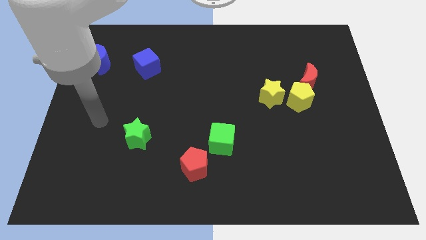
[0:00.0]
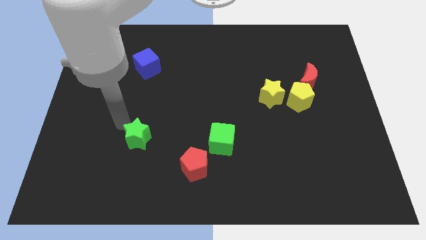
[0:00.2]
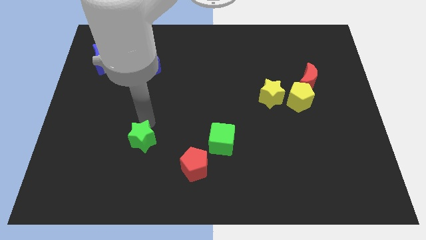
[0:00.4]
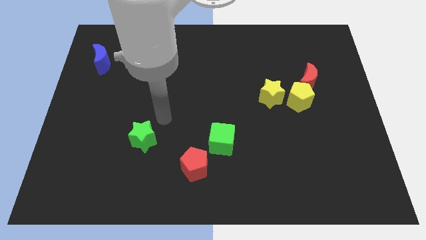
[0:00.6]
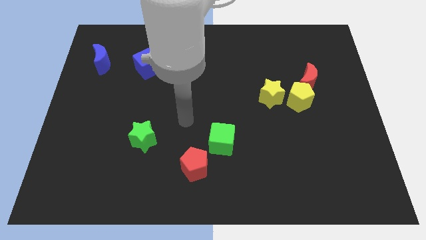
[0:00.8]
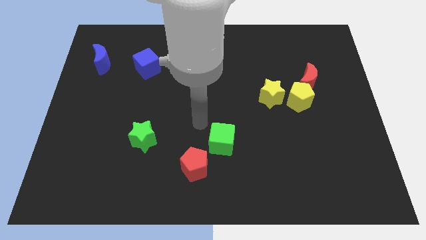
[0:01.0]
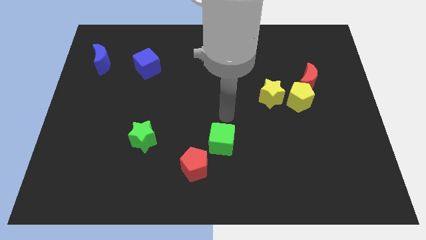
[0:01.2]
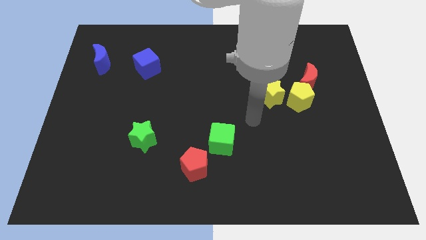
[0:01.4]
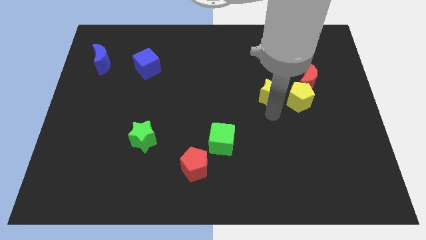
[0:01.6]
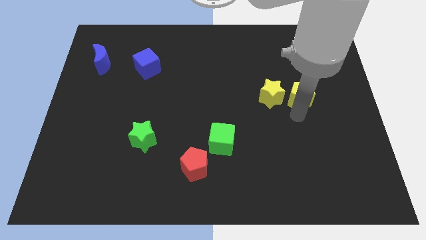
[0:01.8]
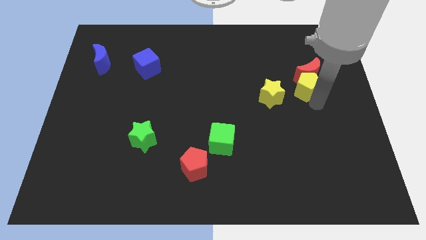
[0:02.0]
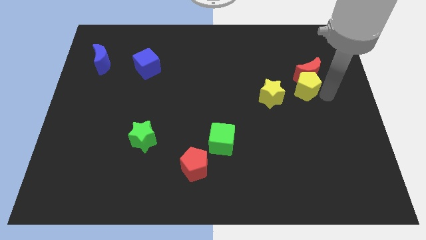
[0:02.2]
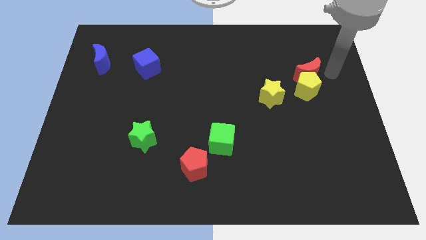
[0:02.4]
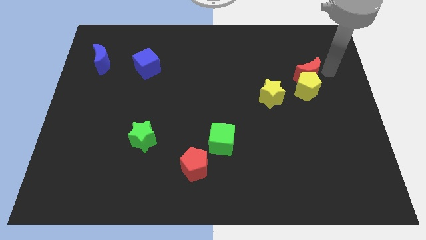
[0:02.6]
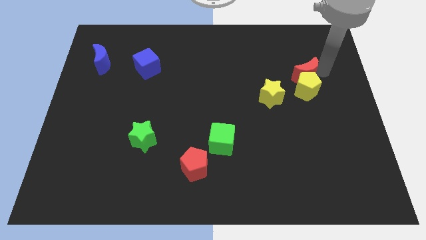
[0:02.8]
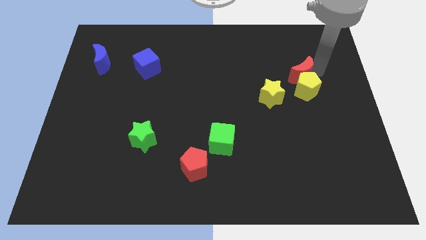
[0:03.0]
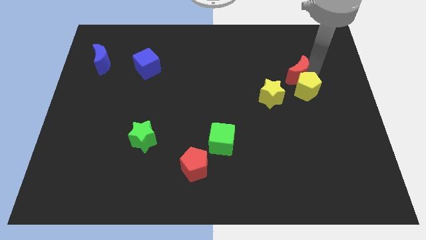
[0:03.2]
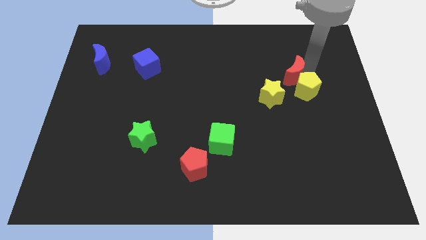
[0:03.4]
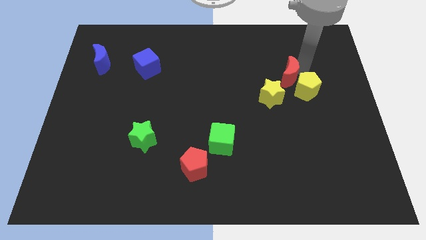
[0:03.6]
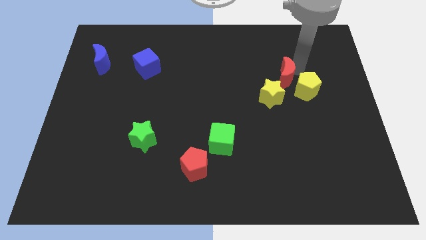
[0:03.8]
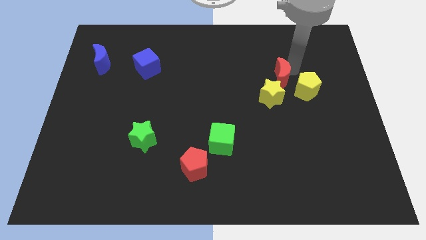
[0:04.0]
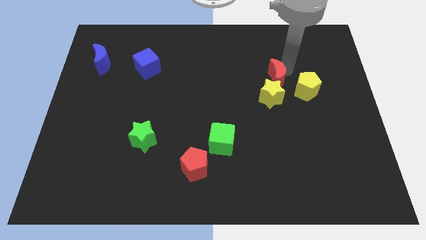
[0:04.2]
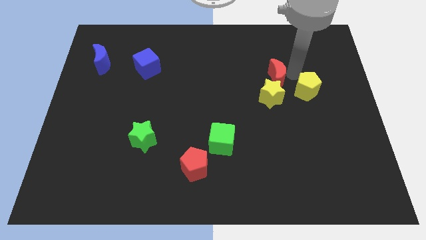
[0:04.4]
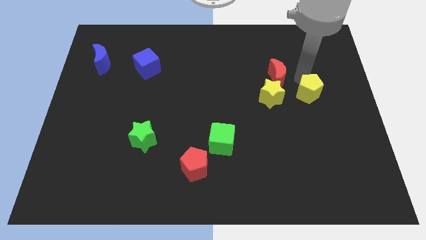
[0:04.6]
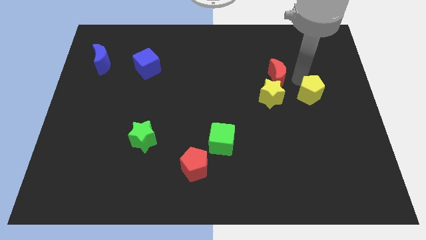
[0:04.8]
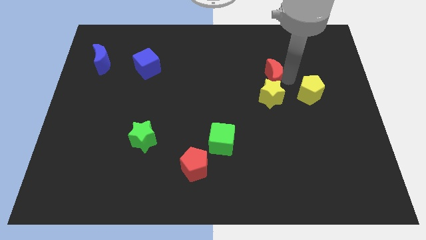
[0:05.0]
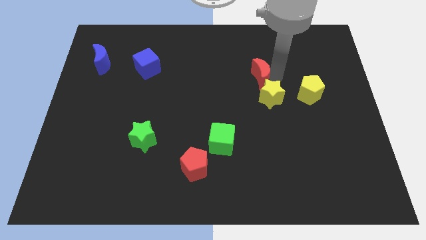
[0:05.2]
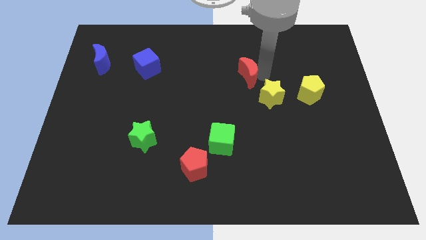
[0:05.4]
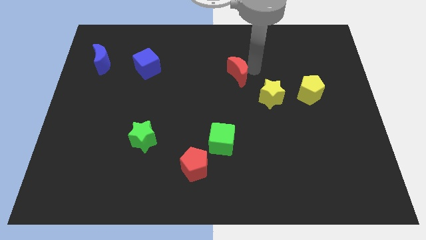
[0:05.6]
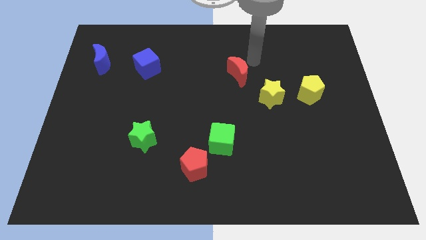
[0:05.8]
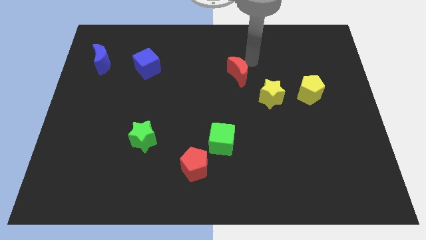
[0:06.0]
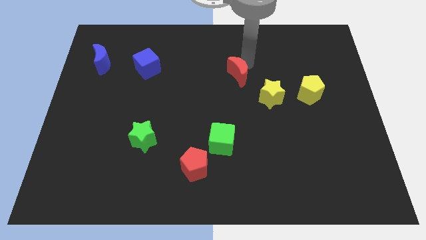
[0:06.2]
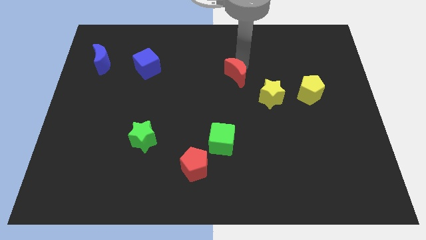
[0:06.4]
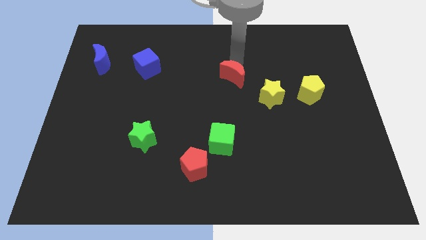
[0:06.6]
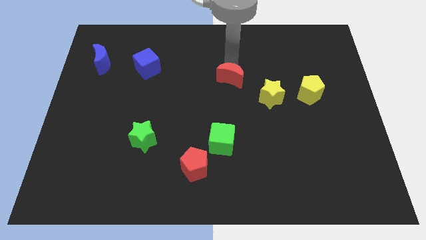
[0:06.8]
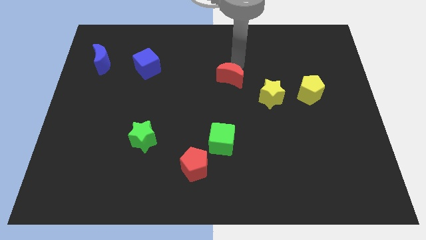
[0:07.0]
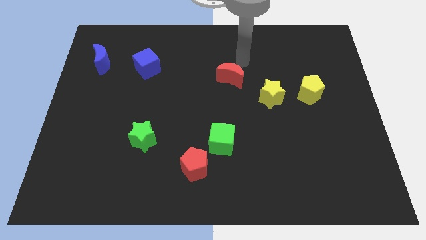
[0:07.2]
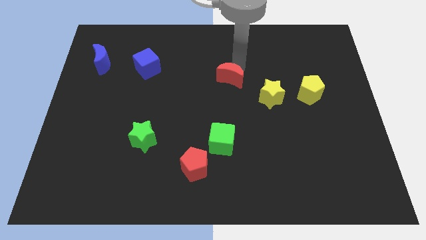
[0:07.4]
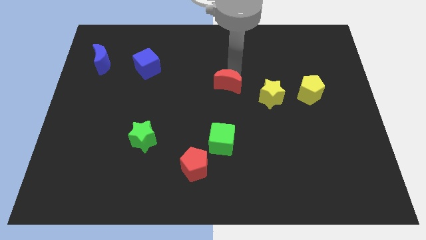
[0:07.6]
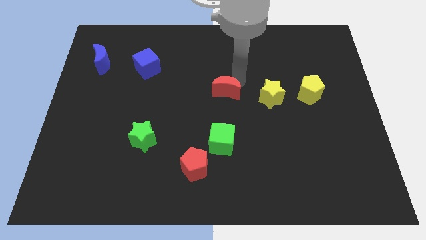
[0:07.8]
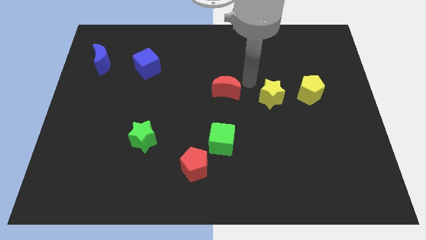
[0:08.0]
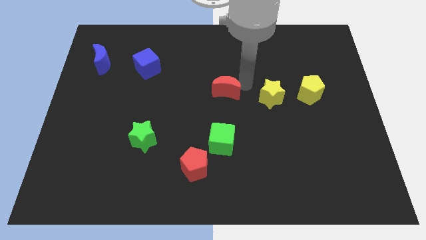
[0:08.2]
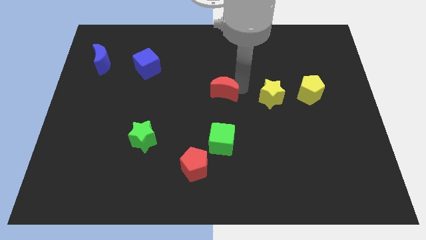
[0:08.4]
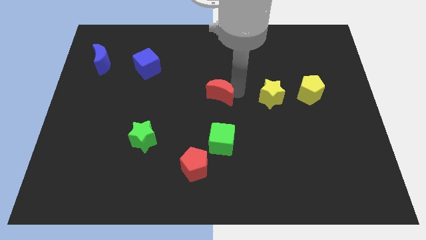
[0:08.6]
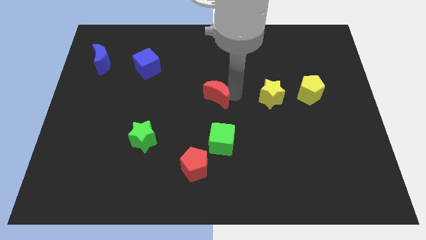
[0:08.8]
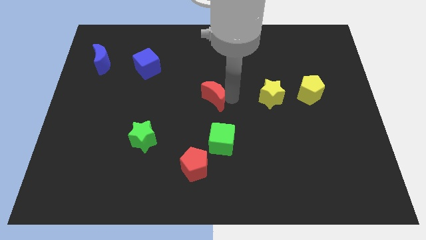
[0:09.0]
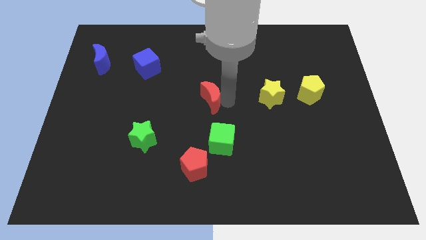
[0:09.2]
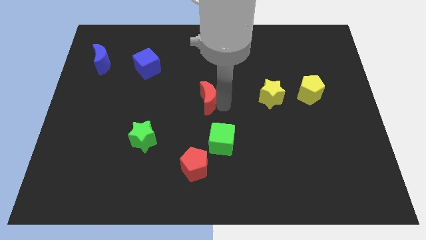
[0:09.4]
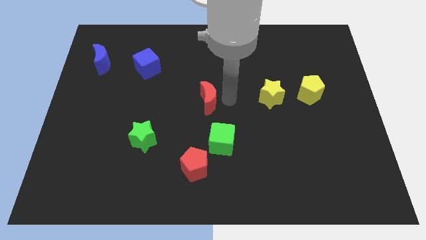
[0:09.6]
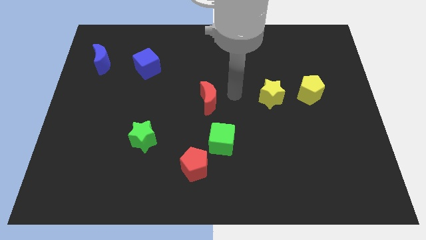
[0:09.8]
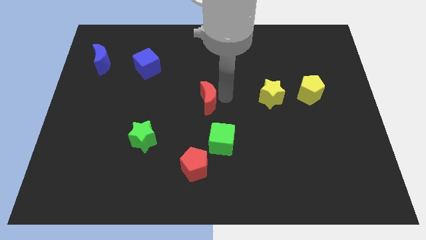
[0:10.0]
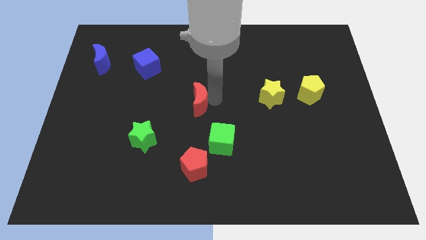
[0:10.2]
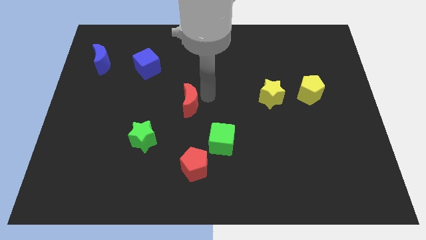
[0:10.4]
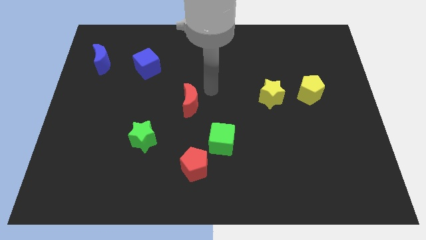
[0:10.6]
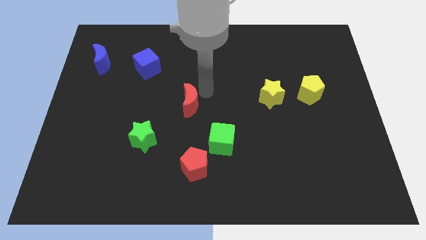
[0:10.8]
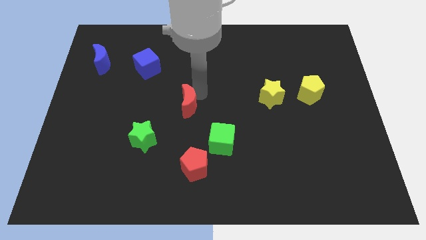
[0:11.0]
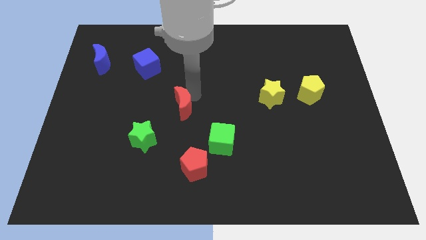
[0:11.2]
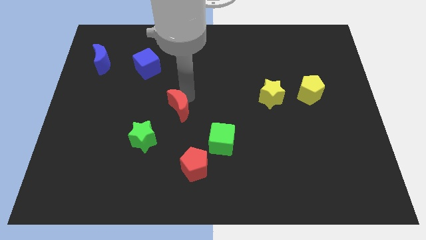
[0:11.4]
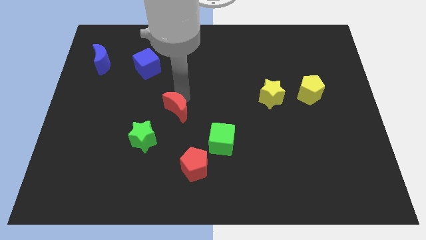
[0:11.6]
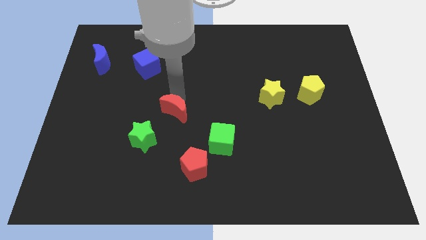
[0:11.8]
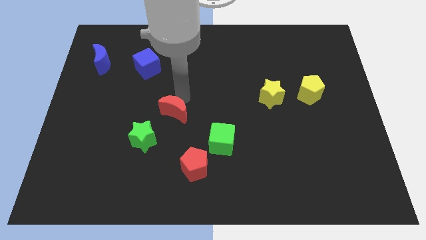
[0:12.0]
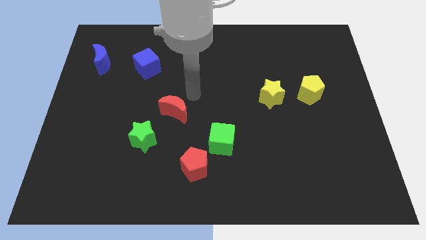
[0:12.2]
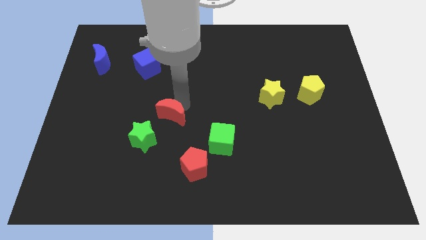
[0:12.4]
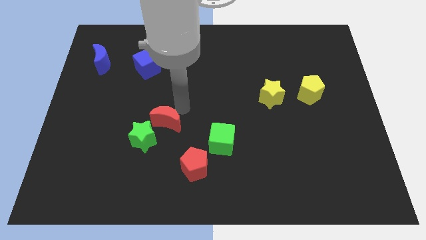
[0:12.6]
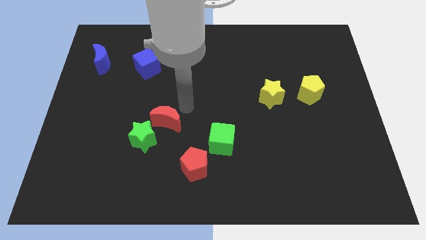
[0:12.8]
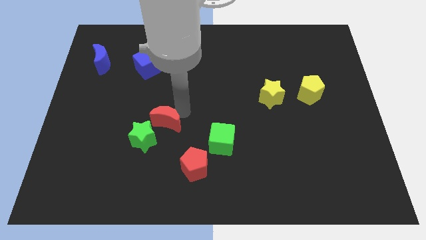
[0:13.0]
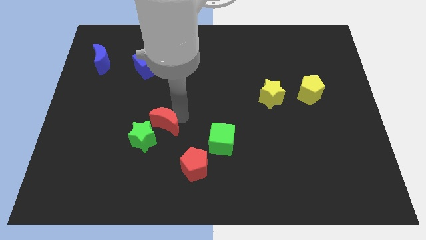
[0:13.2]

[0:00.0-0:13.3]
move the red moon towards the green star

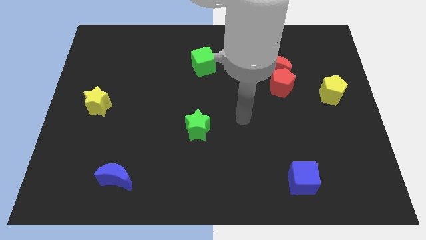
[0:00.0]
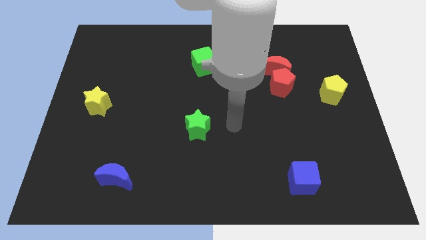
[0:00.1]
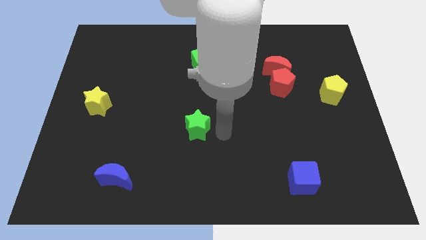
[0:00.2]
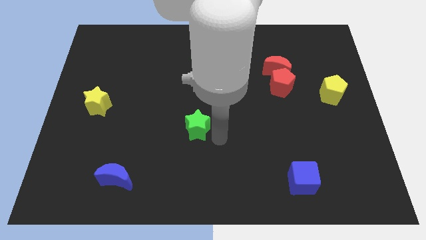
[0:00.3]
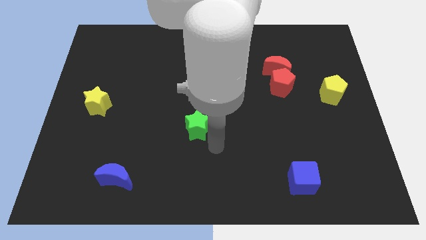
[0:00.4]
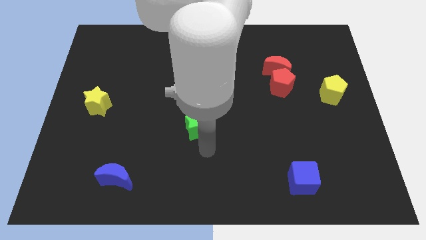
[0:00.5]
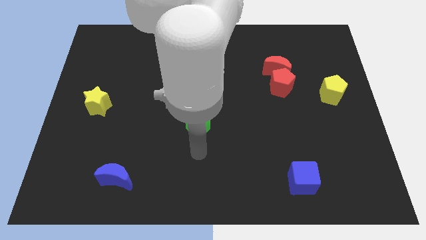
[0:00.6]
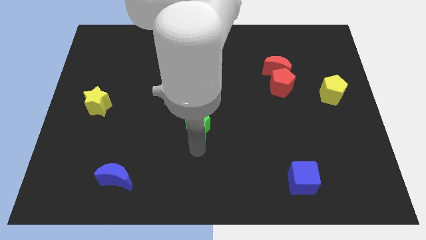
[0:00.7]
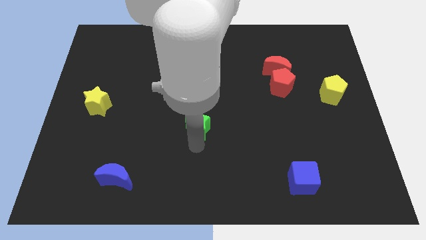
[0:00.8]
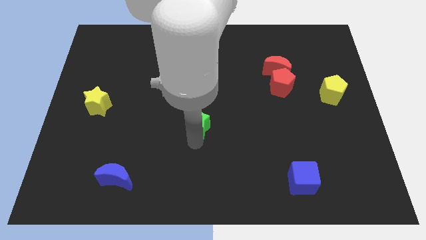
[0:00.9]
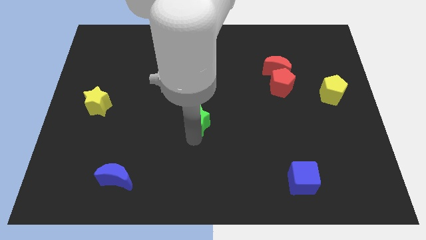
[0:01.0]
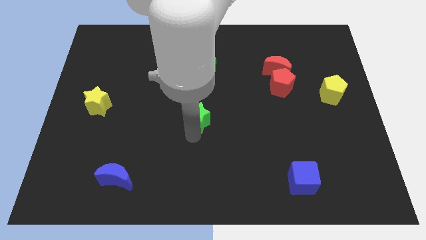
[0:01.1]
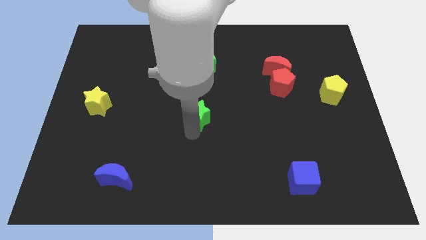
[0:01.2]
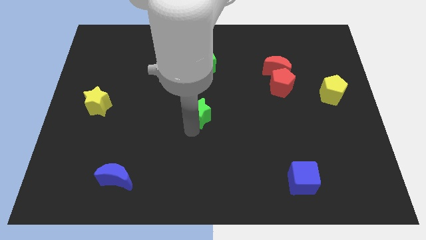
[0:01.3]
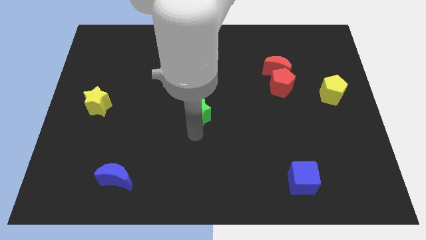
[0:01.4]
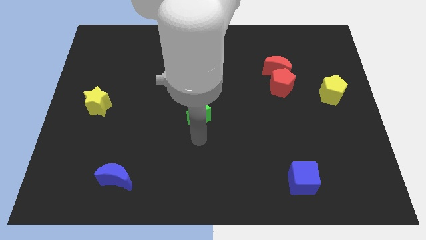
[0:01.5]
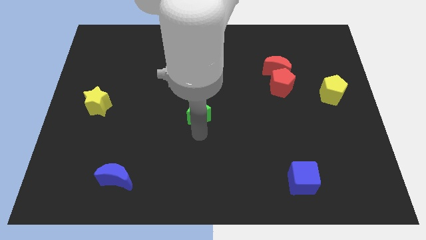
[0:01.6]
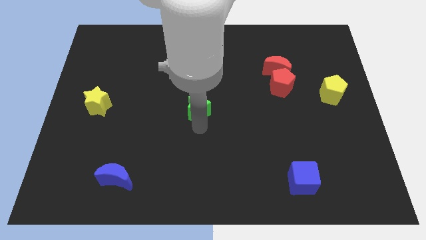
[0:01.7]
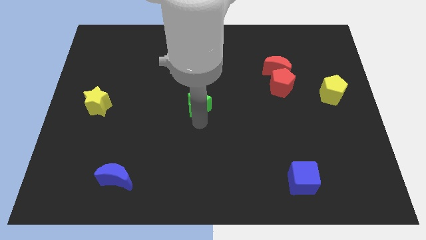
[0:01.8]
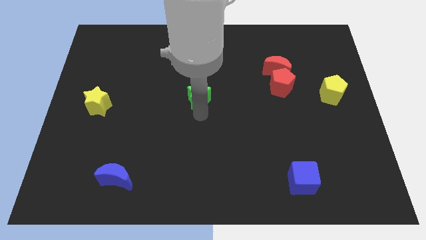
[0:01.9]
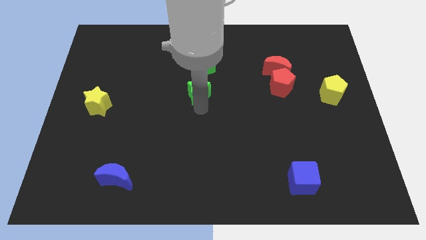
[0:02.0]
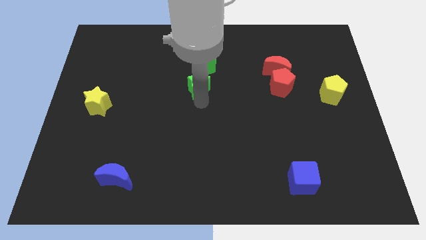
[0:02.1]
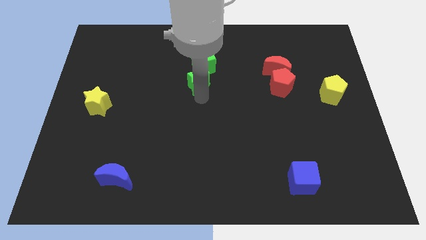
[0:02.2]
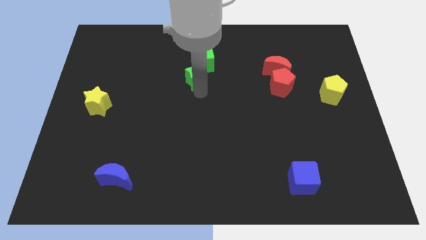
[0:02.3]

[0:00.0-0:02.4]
move the green star next to the green cube
